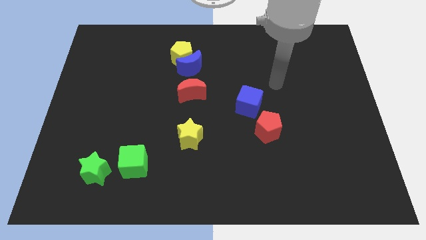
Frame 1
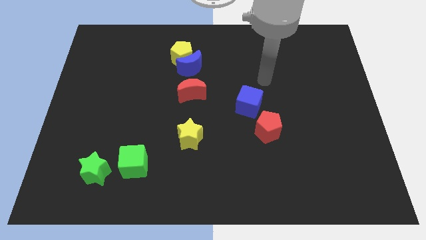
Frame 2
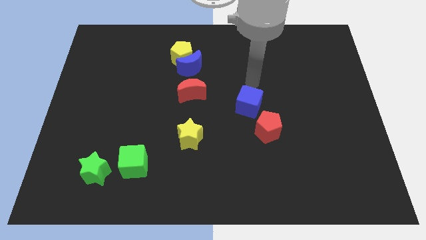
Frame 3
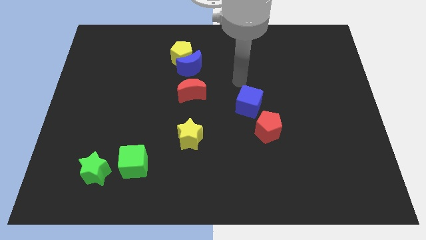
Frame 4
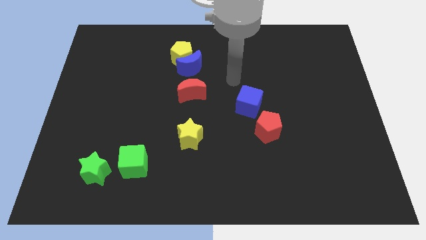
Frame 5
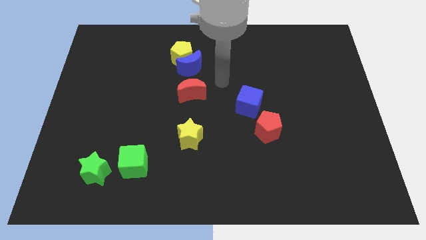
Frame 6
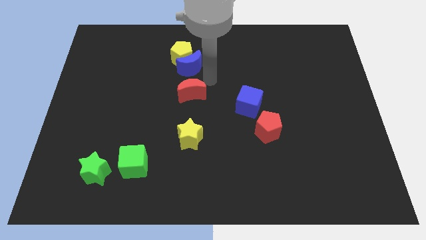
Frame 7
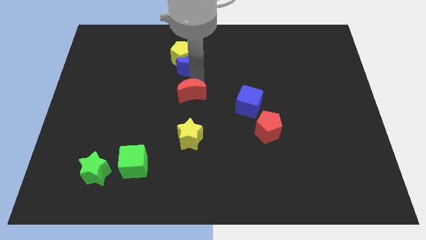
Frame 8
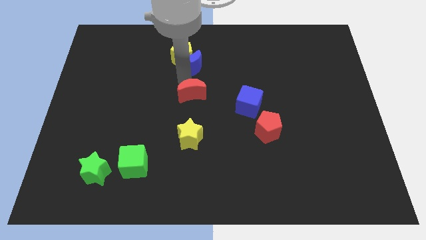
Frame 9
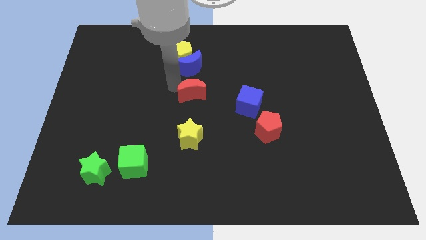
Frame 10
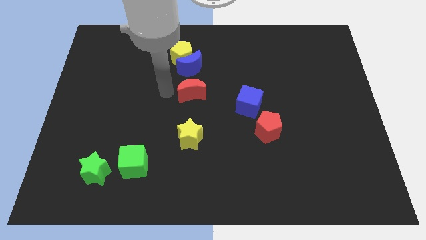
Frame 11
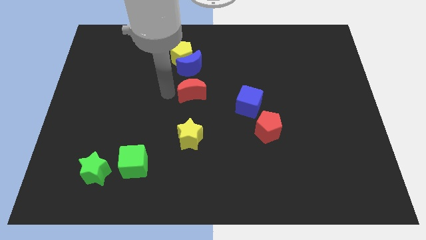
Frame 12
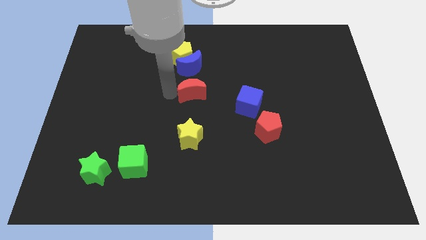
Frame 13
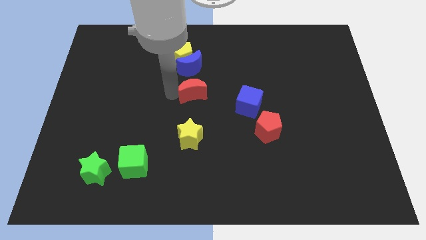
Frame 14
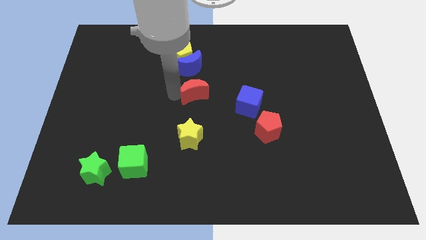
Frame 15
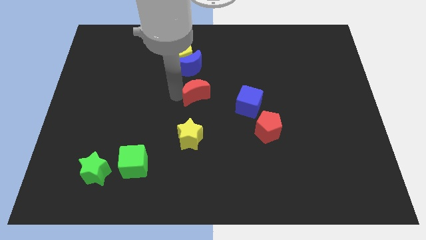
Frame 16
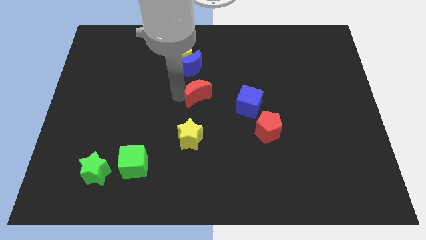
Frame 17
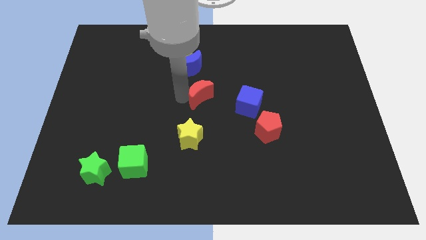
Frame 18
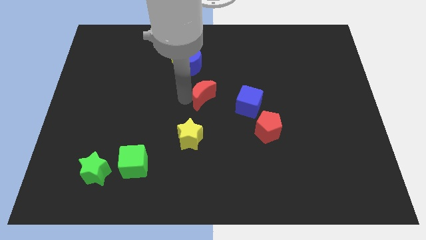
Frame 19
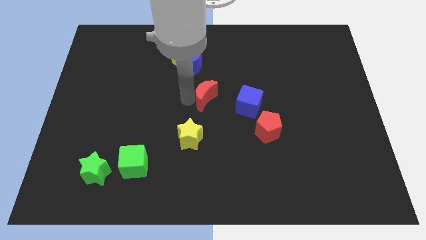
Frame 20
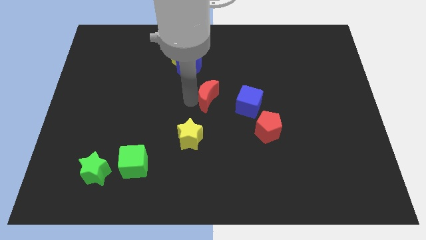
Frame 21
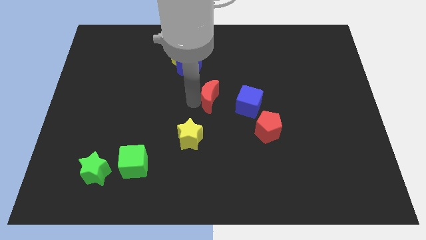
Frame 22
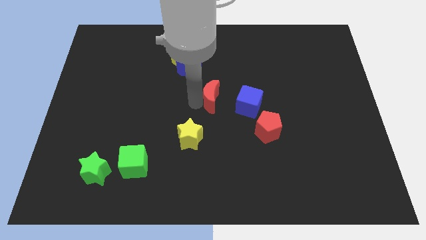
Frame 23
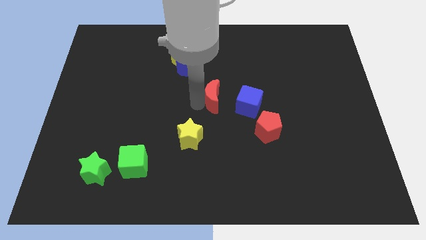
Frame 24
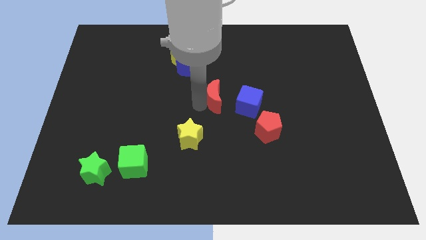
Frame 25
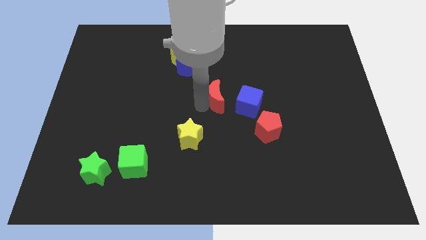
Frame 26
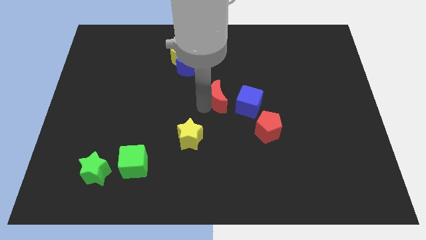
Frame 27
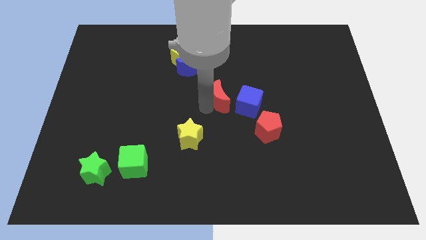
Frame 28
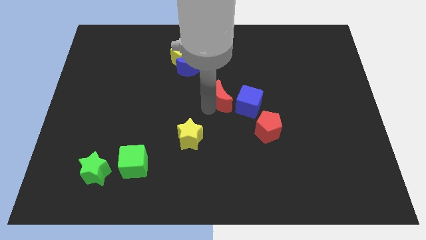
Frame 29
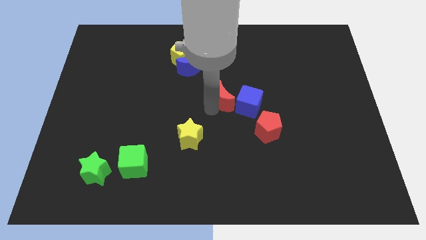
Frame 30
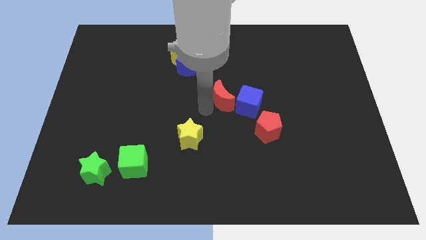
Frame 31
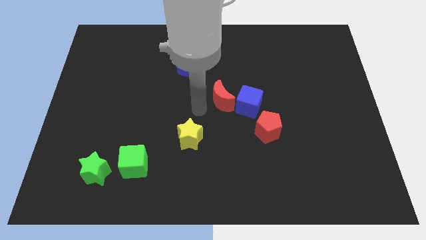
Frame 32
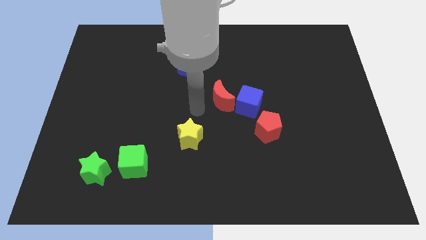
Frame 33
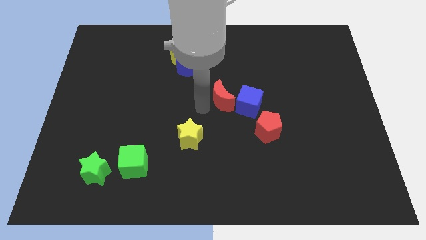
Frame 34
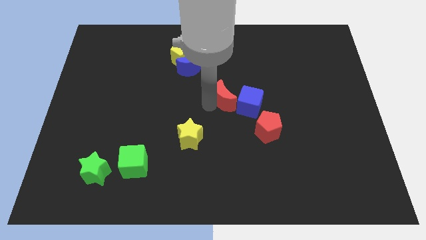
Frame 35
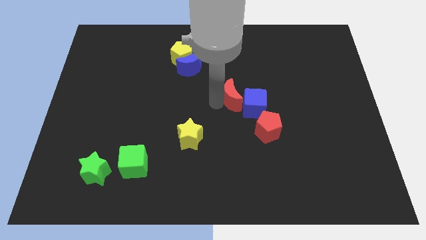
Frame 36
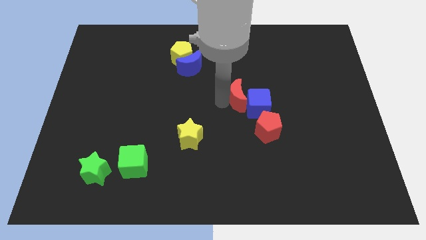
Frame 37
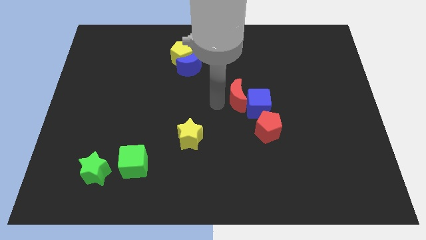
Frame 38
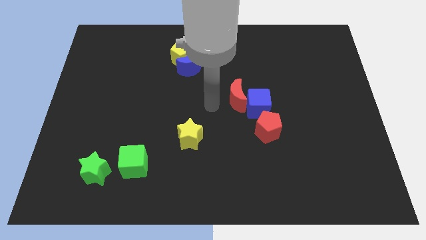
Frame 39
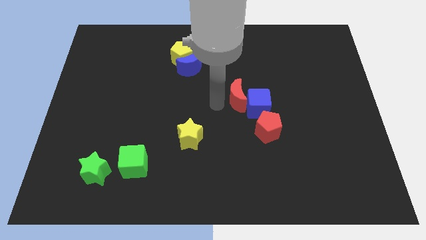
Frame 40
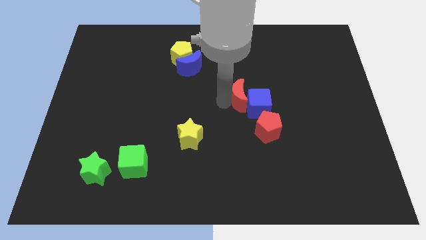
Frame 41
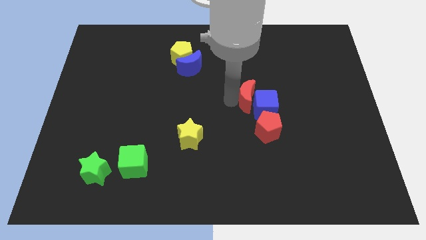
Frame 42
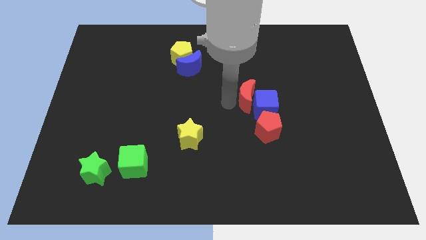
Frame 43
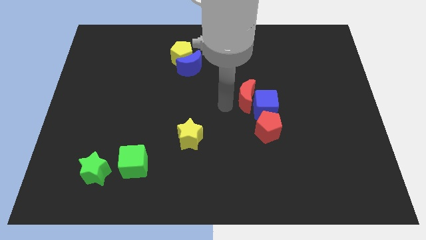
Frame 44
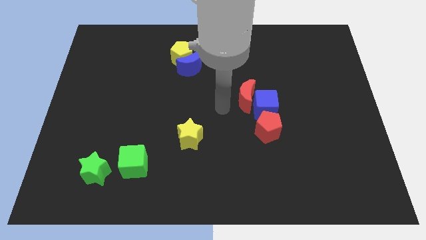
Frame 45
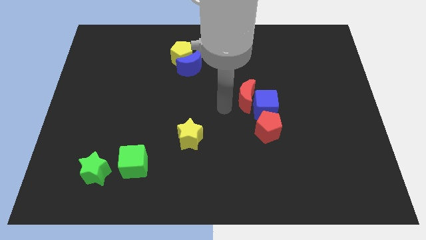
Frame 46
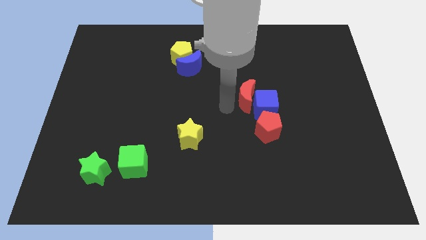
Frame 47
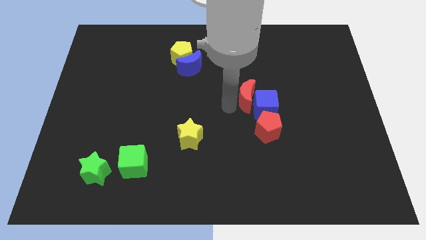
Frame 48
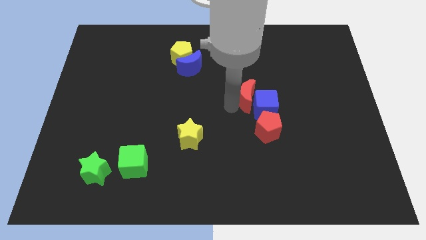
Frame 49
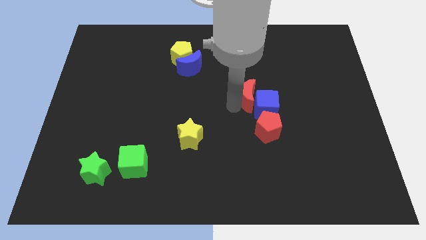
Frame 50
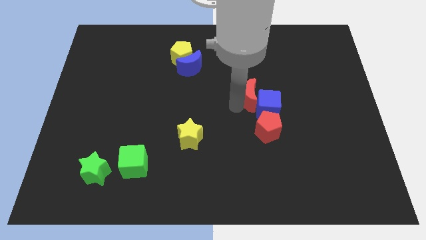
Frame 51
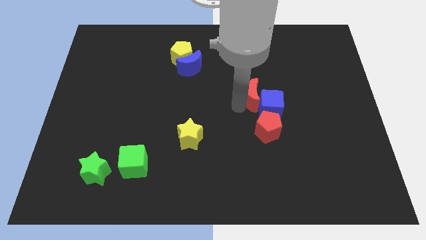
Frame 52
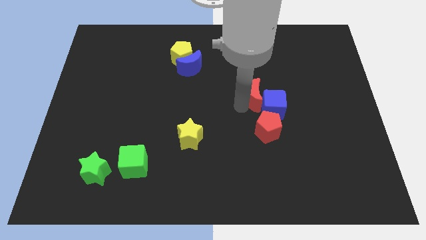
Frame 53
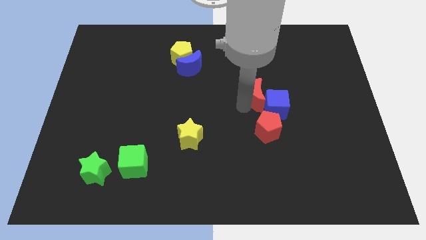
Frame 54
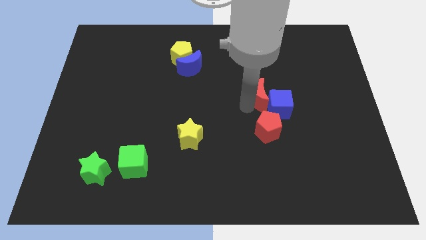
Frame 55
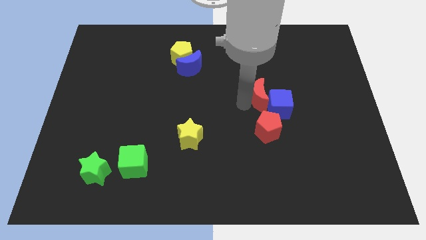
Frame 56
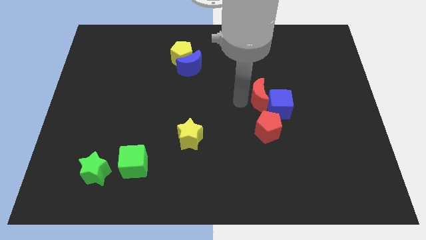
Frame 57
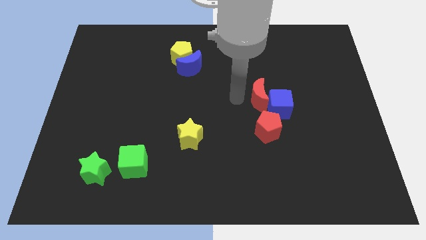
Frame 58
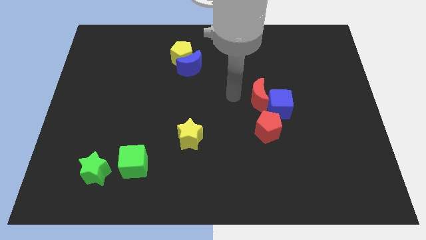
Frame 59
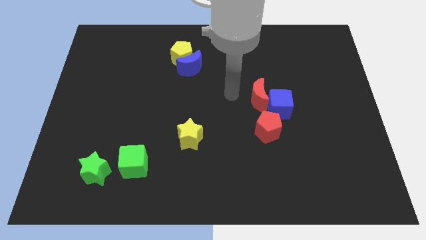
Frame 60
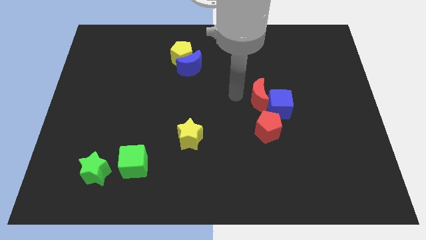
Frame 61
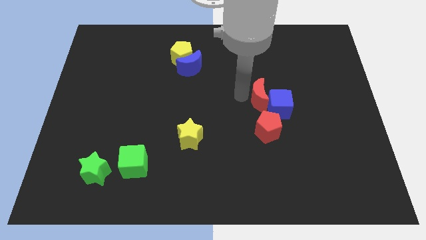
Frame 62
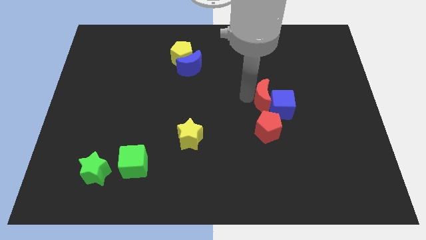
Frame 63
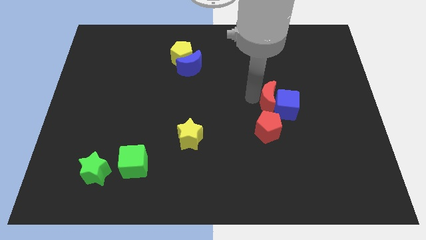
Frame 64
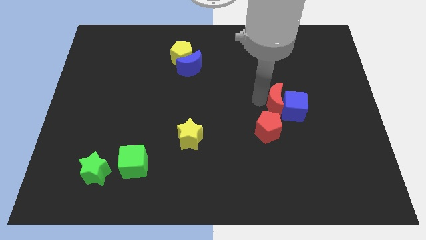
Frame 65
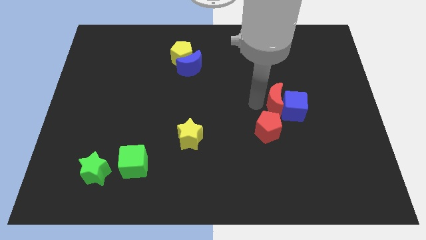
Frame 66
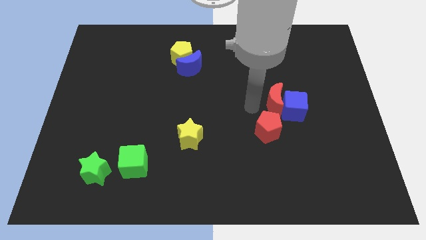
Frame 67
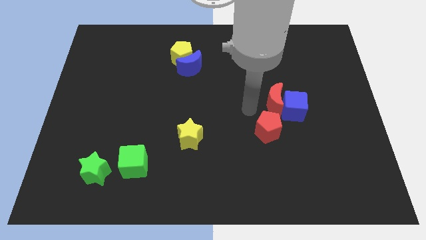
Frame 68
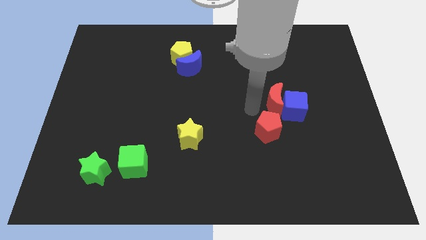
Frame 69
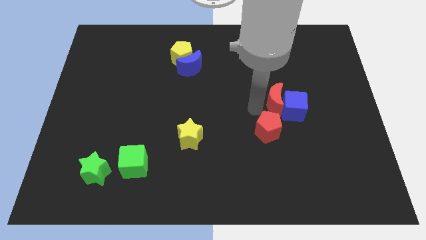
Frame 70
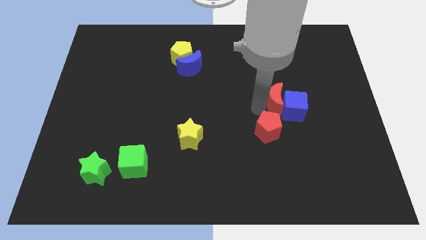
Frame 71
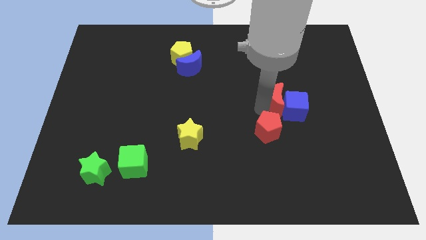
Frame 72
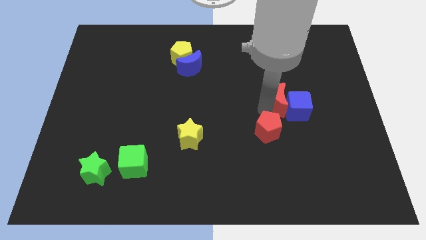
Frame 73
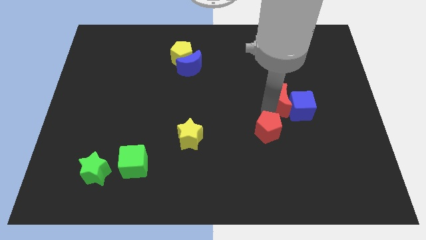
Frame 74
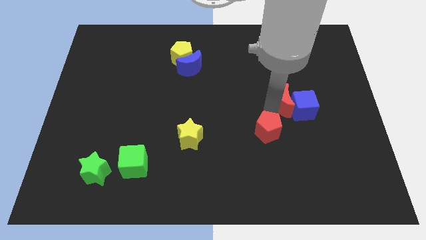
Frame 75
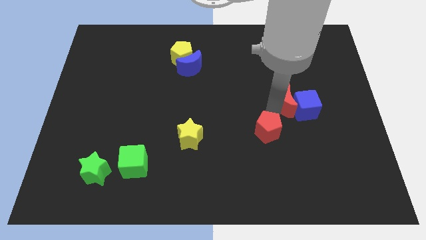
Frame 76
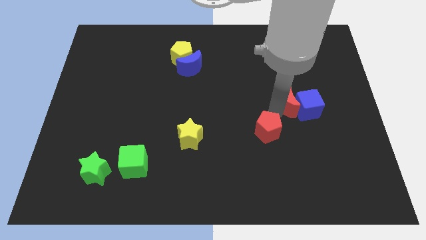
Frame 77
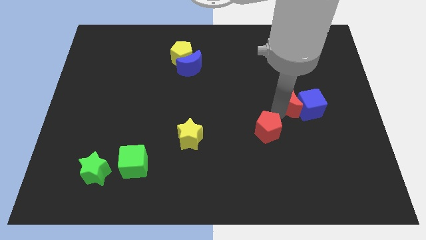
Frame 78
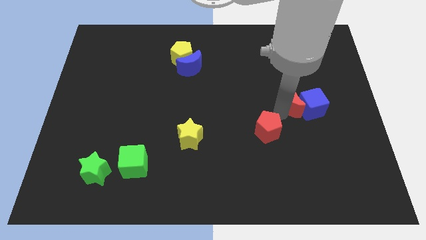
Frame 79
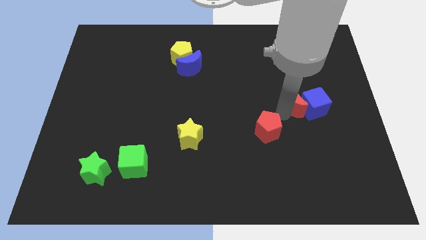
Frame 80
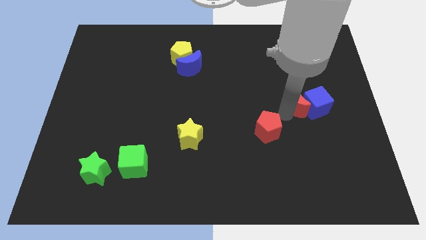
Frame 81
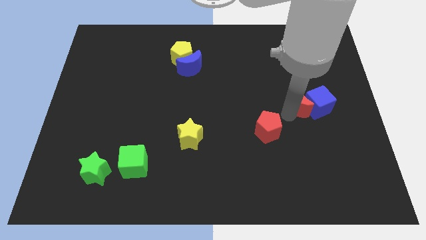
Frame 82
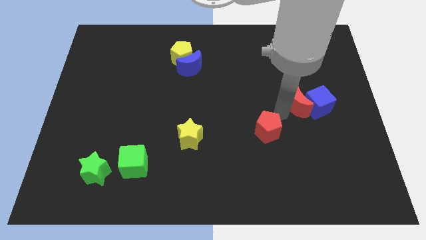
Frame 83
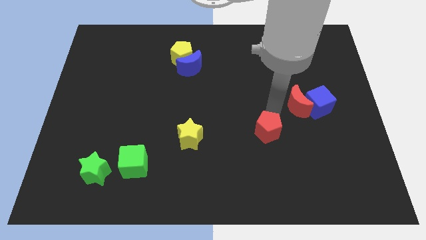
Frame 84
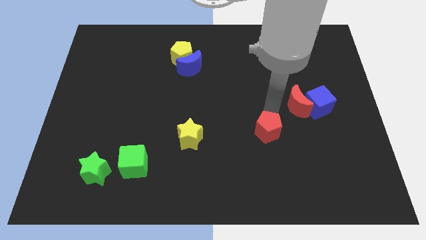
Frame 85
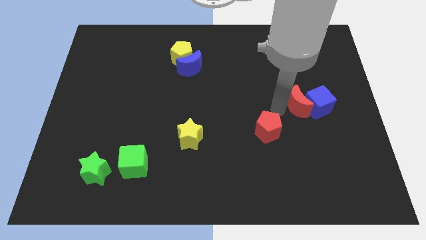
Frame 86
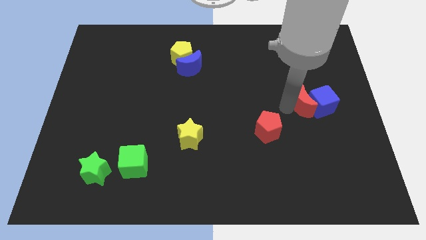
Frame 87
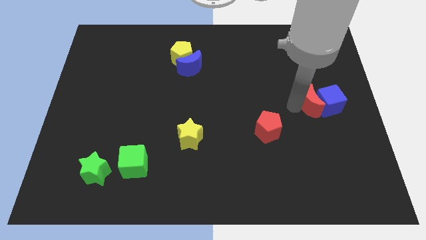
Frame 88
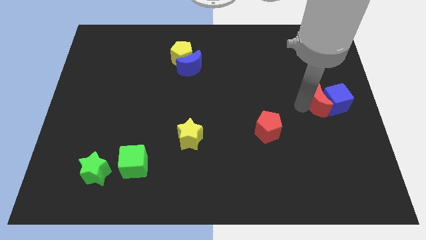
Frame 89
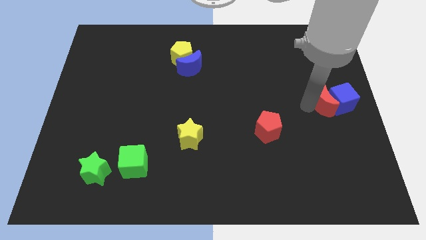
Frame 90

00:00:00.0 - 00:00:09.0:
put the red moon to the right side
